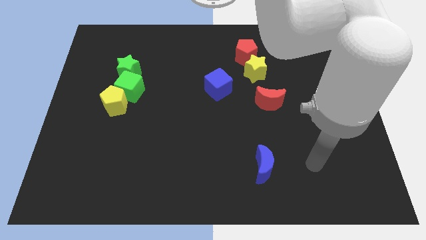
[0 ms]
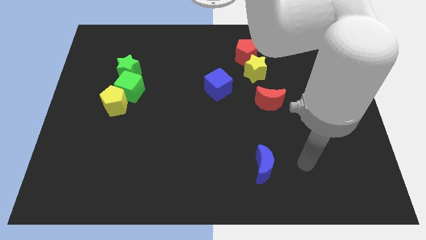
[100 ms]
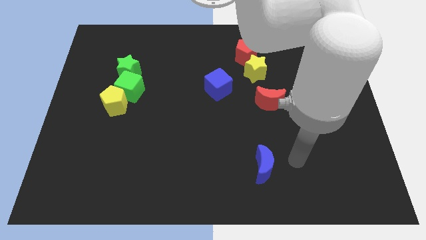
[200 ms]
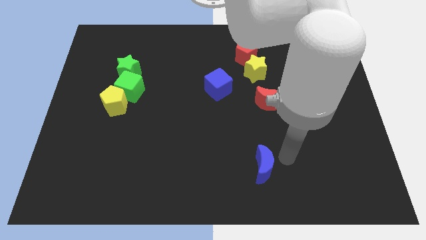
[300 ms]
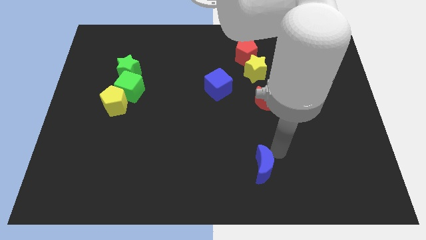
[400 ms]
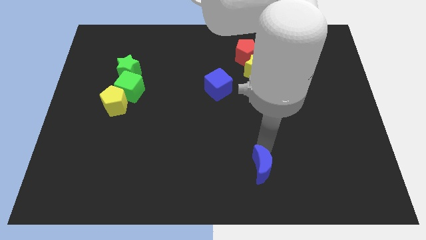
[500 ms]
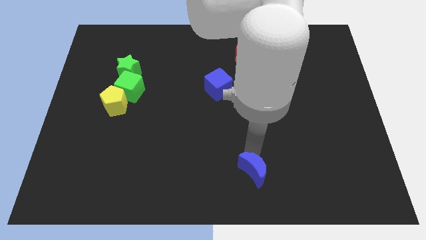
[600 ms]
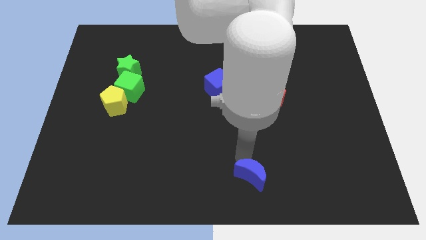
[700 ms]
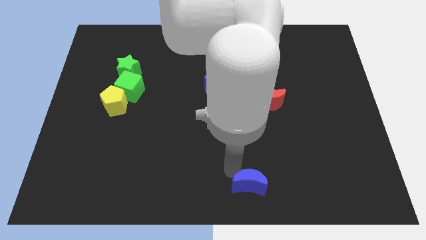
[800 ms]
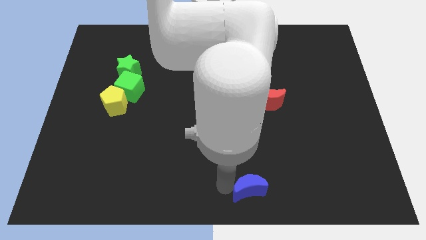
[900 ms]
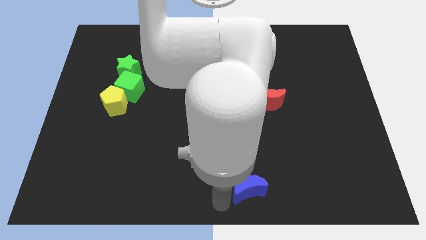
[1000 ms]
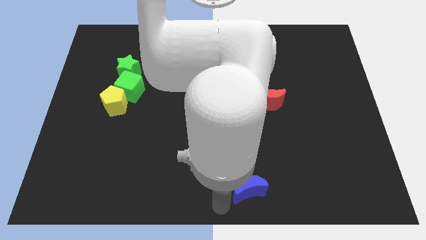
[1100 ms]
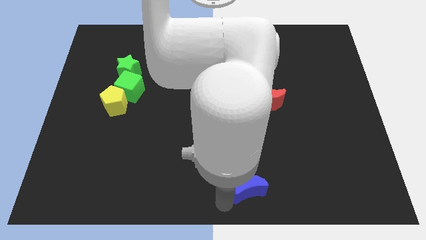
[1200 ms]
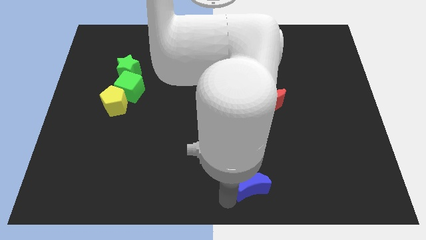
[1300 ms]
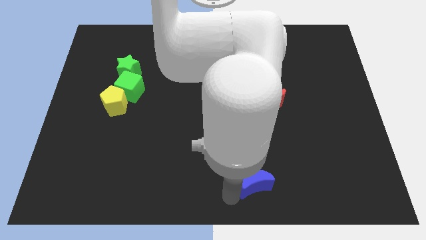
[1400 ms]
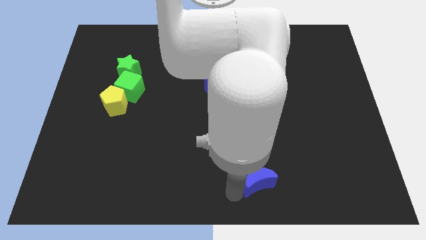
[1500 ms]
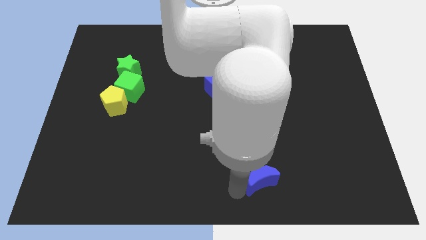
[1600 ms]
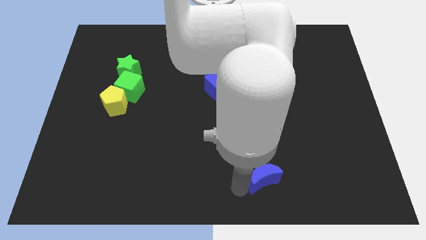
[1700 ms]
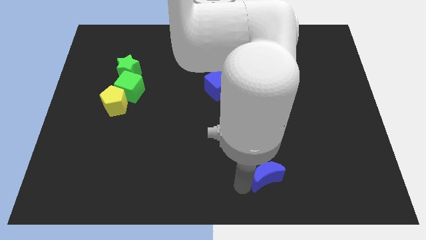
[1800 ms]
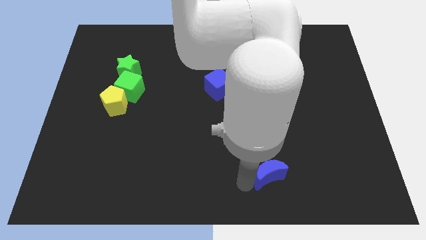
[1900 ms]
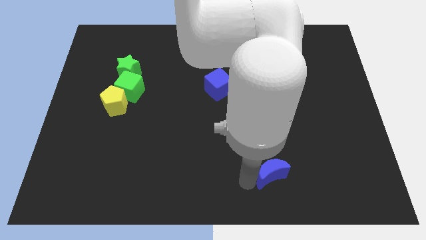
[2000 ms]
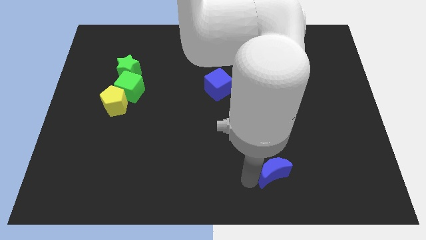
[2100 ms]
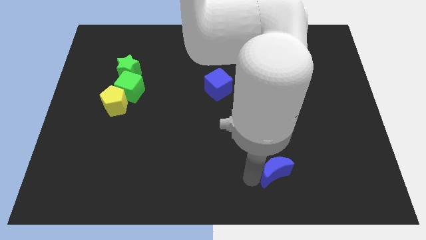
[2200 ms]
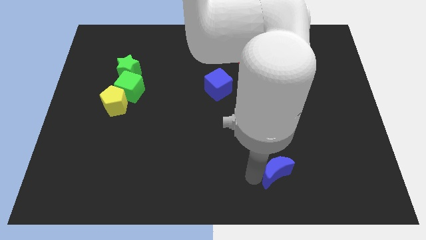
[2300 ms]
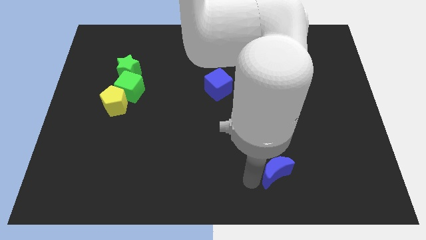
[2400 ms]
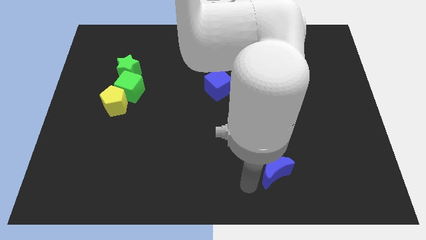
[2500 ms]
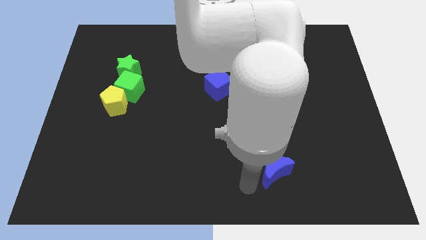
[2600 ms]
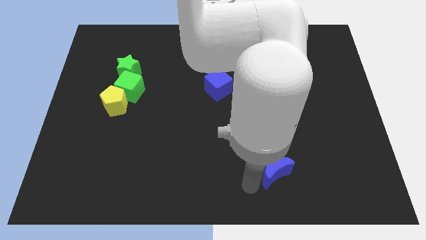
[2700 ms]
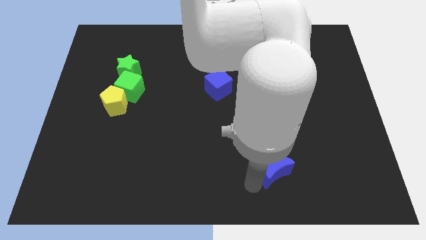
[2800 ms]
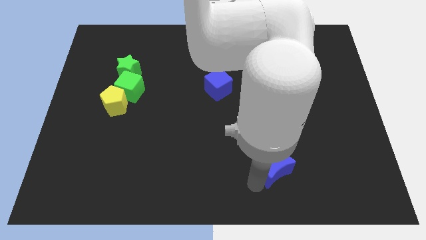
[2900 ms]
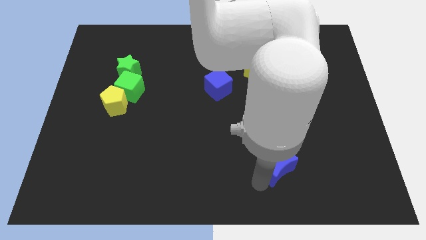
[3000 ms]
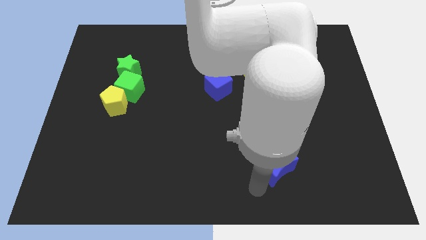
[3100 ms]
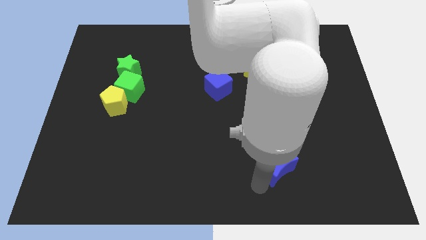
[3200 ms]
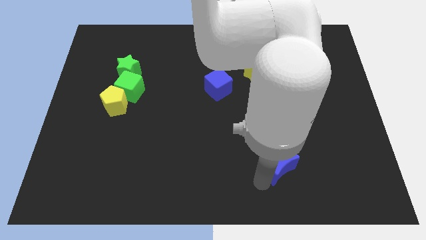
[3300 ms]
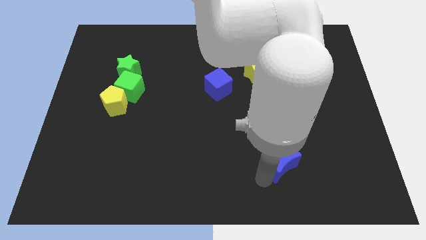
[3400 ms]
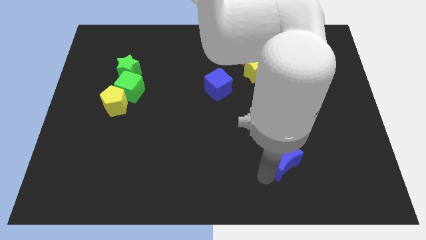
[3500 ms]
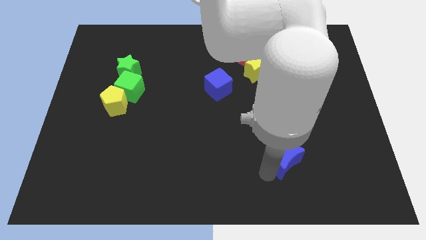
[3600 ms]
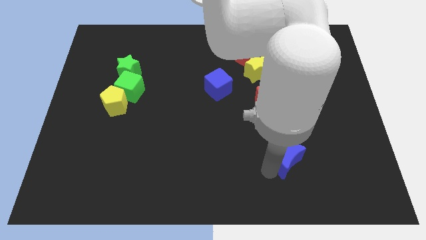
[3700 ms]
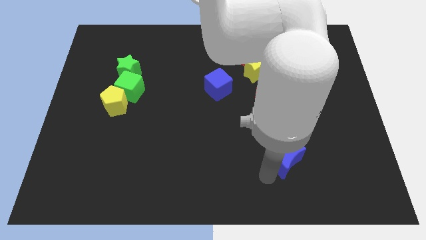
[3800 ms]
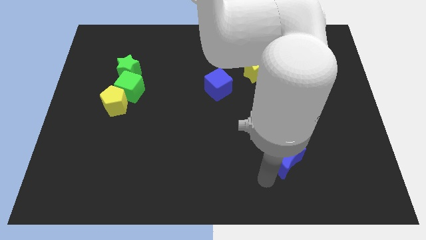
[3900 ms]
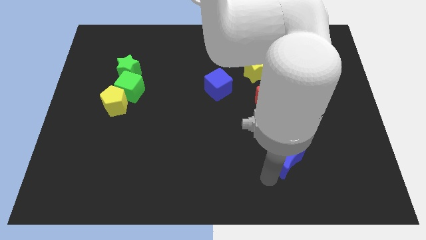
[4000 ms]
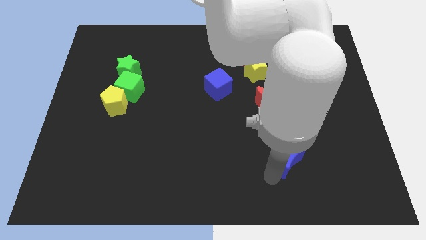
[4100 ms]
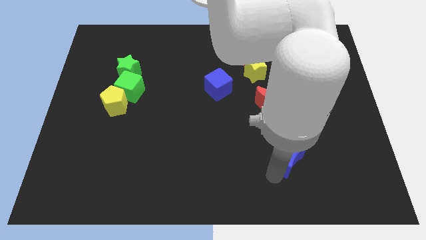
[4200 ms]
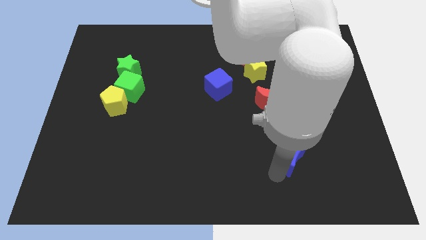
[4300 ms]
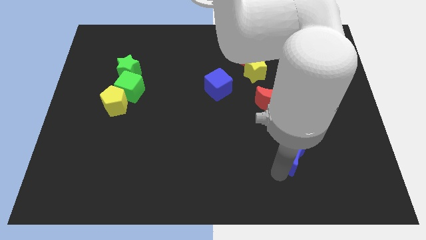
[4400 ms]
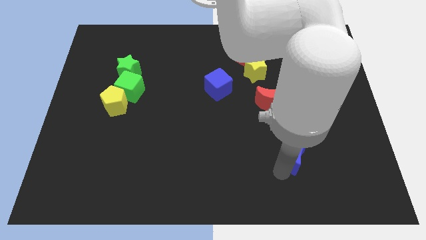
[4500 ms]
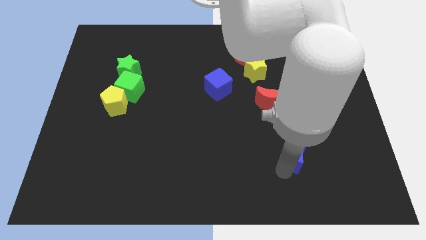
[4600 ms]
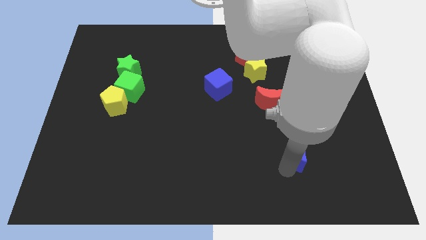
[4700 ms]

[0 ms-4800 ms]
move the blue moon a little bit up and right diagonally

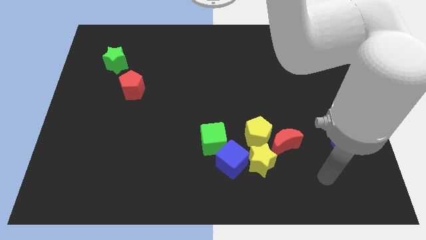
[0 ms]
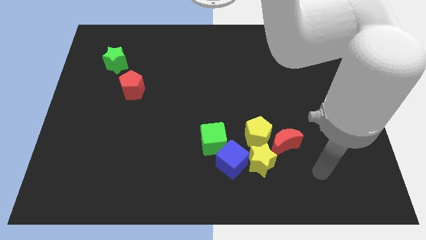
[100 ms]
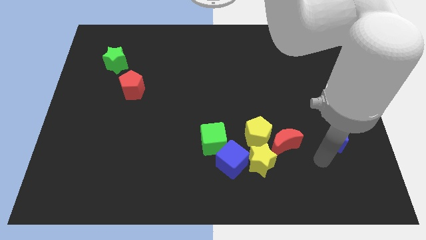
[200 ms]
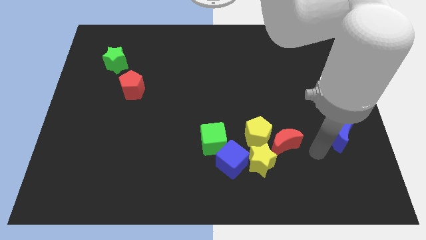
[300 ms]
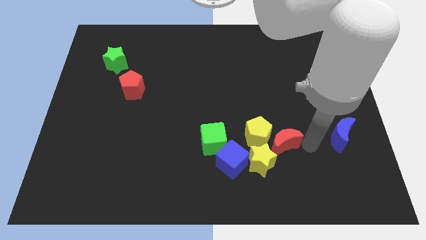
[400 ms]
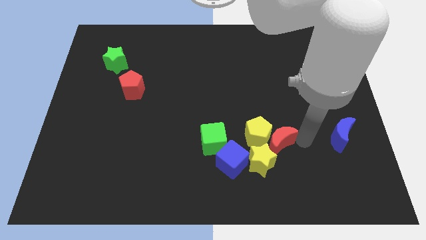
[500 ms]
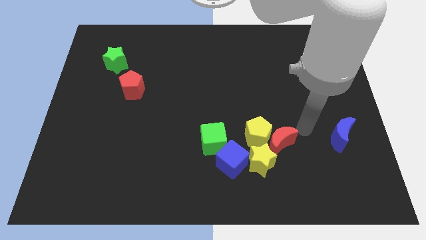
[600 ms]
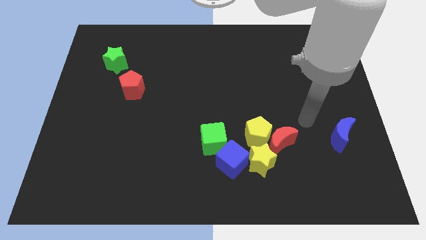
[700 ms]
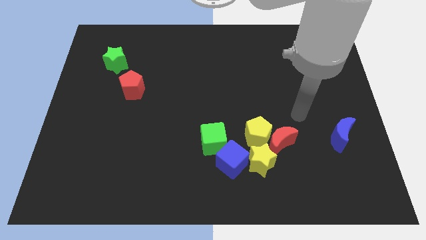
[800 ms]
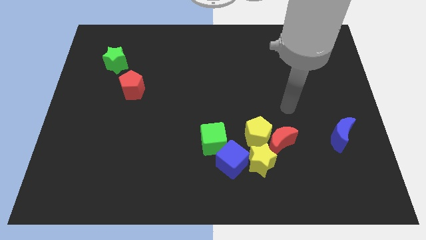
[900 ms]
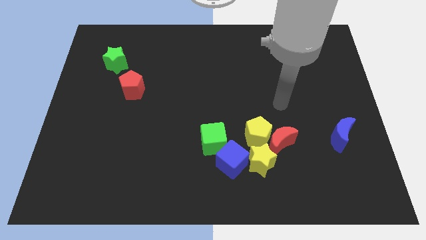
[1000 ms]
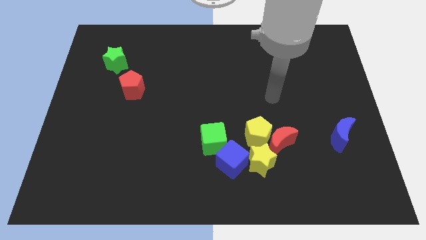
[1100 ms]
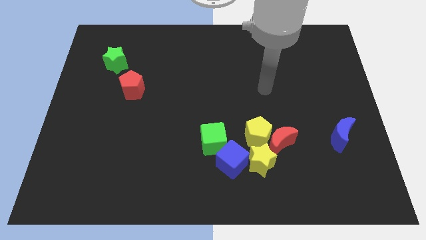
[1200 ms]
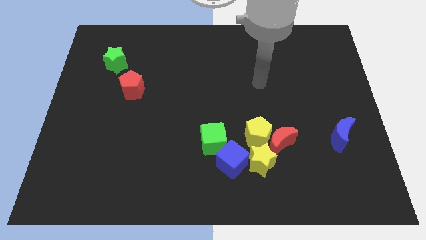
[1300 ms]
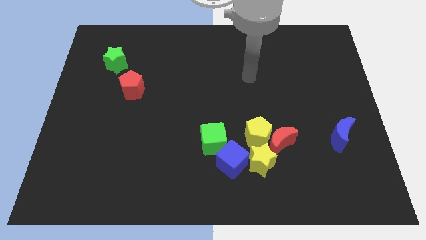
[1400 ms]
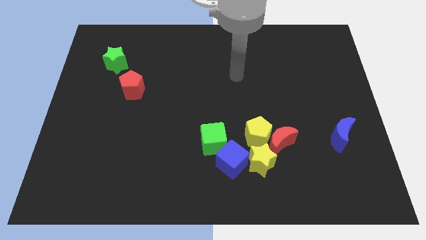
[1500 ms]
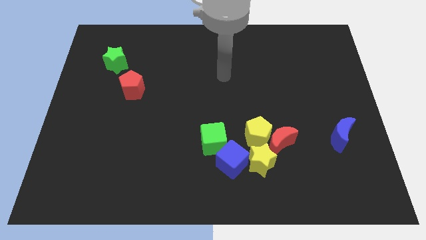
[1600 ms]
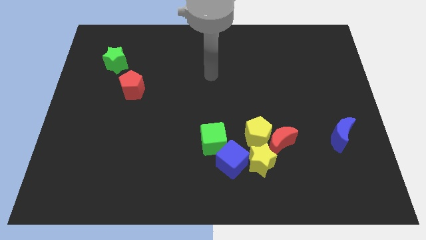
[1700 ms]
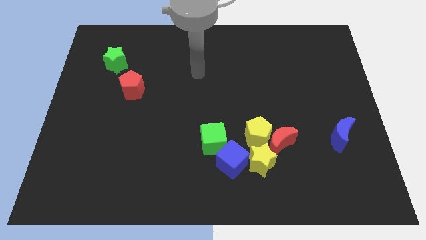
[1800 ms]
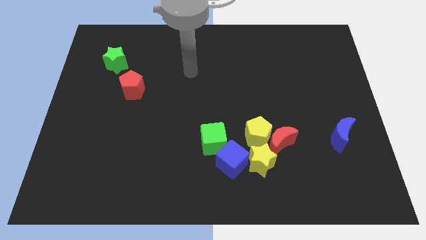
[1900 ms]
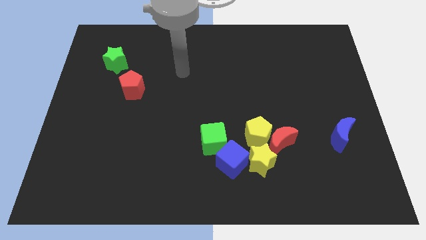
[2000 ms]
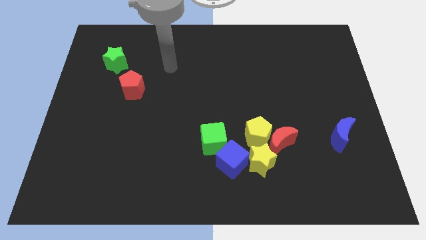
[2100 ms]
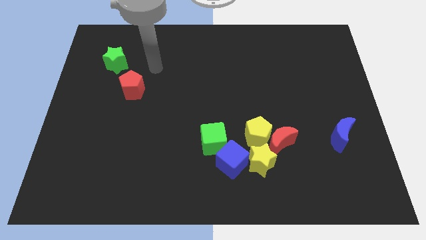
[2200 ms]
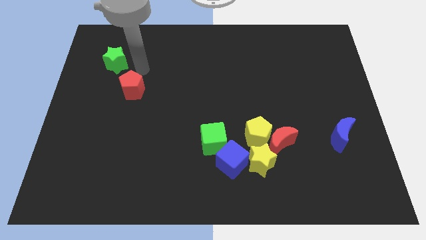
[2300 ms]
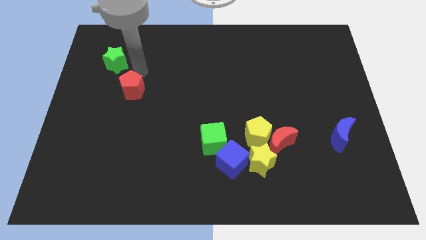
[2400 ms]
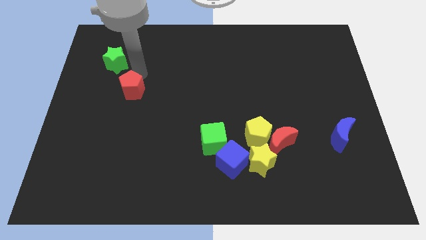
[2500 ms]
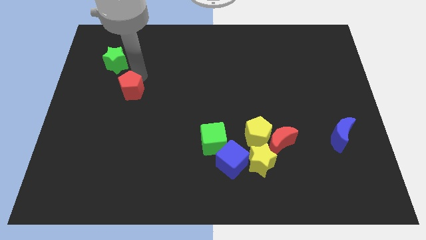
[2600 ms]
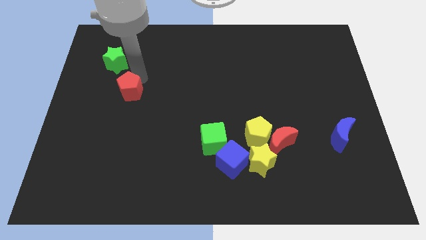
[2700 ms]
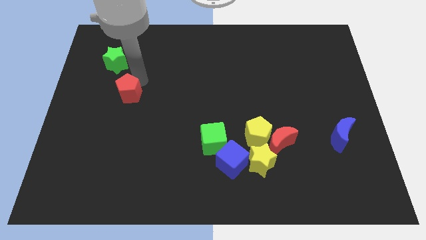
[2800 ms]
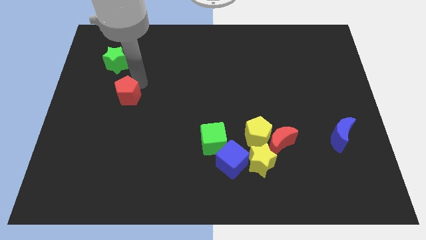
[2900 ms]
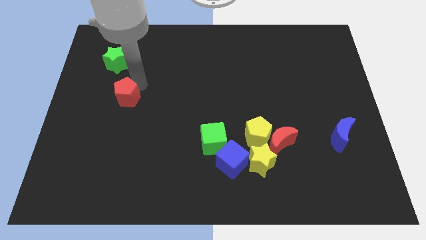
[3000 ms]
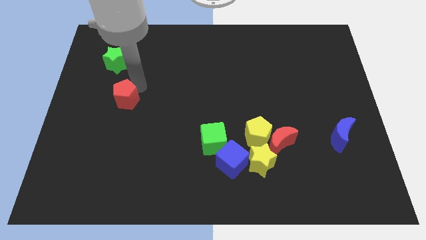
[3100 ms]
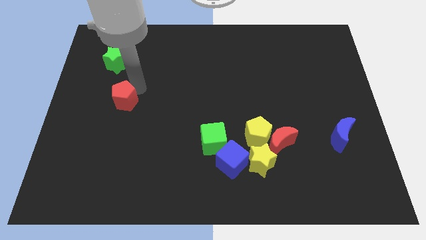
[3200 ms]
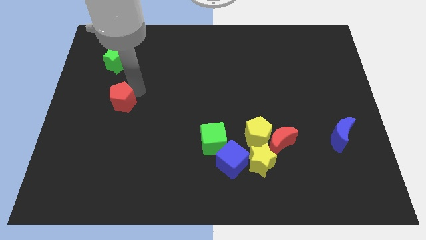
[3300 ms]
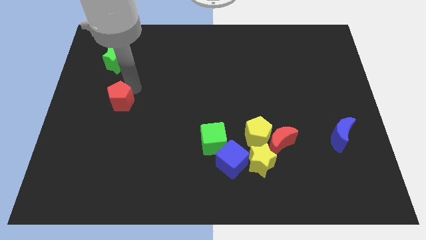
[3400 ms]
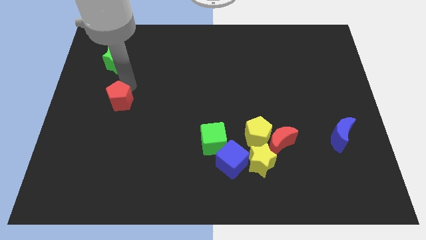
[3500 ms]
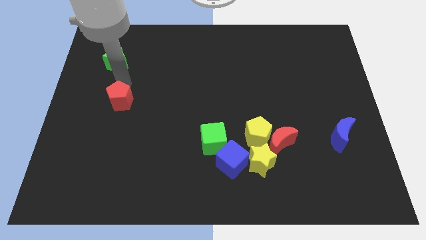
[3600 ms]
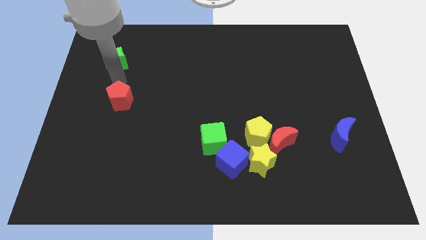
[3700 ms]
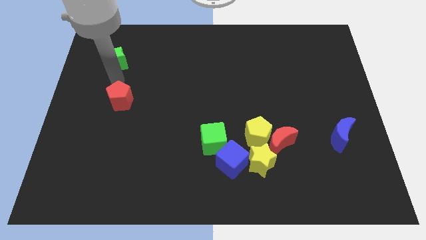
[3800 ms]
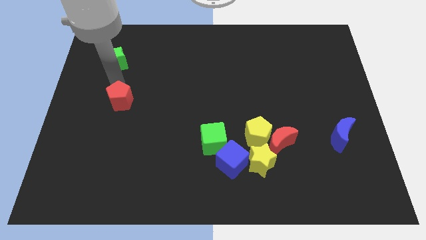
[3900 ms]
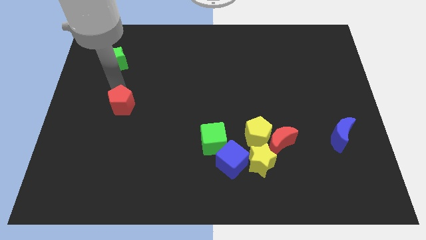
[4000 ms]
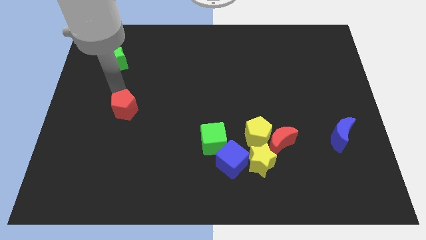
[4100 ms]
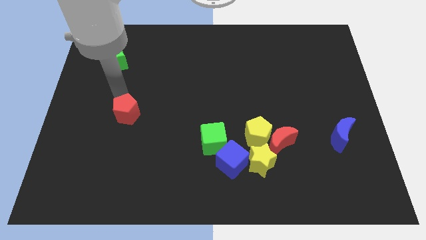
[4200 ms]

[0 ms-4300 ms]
slightly move the red pentagon down
